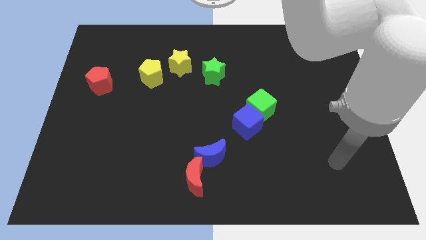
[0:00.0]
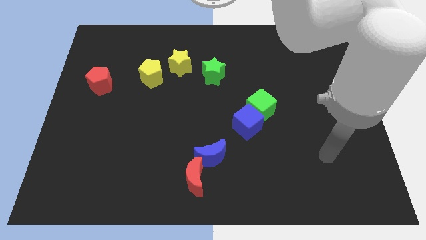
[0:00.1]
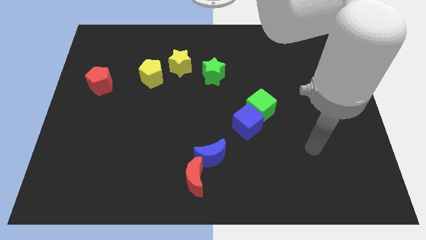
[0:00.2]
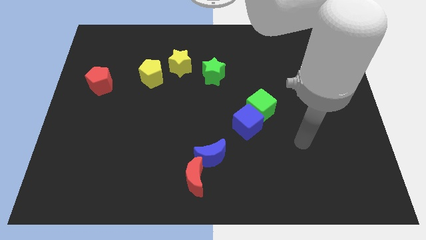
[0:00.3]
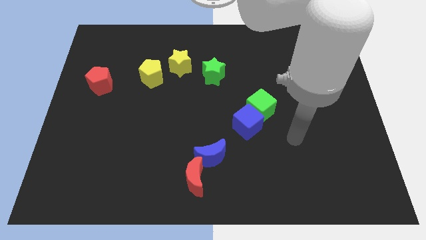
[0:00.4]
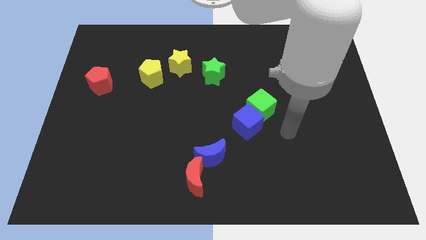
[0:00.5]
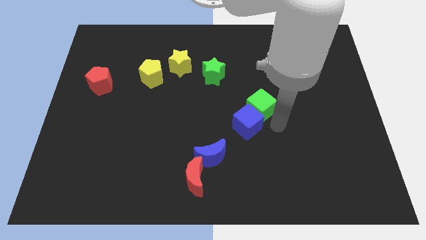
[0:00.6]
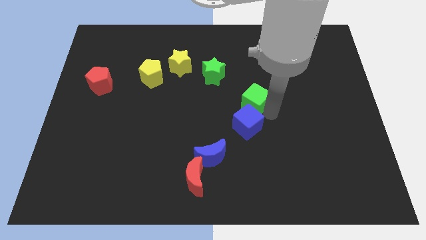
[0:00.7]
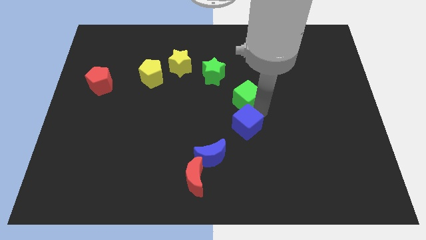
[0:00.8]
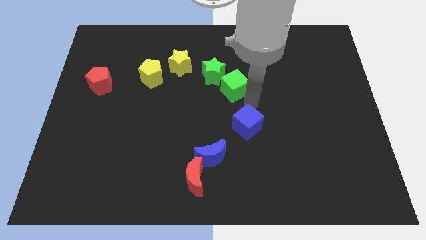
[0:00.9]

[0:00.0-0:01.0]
separate the blue cube from the green cube

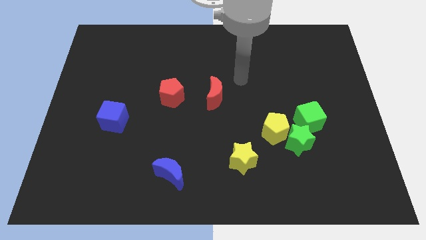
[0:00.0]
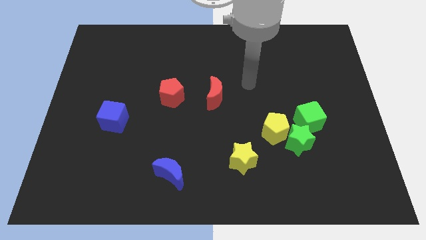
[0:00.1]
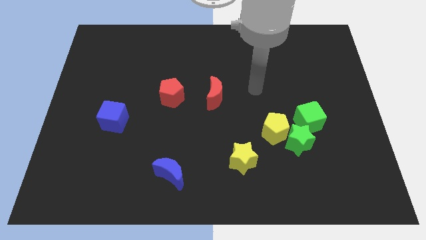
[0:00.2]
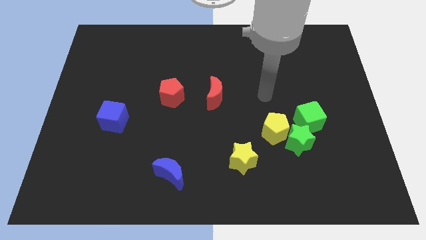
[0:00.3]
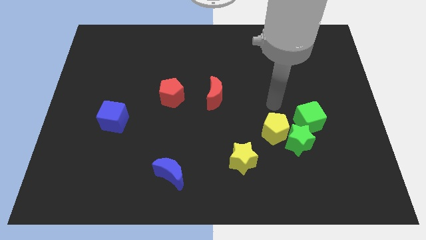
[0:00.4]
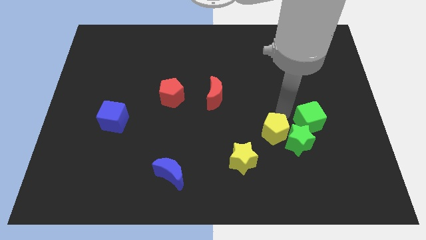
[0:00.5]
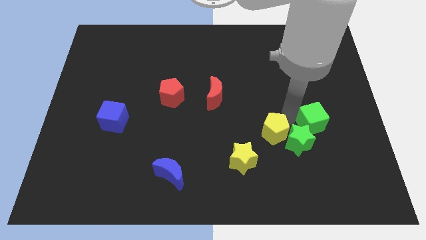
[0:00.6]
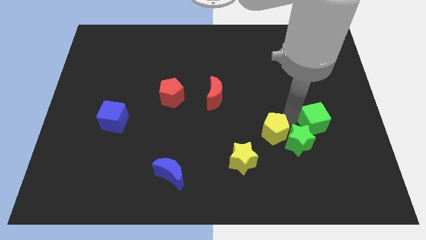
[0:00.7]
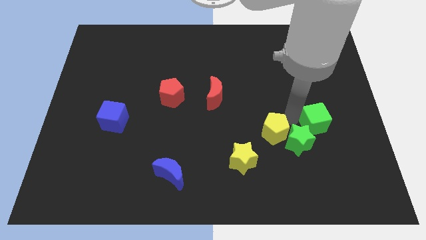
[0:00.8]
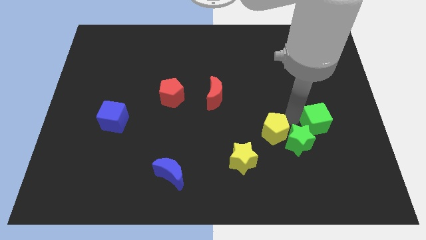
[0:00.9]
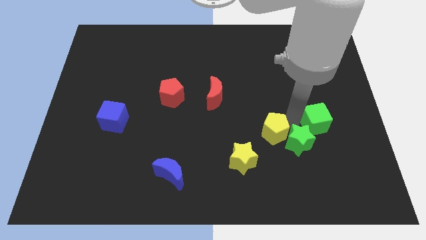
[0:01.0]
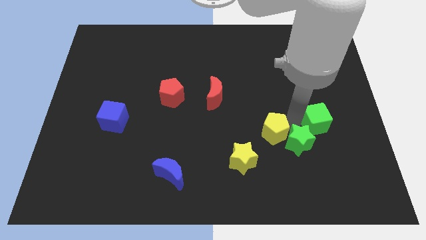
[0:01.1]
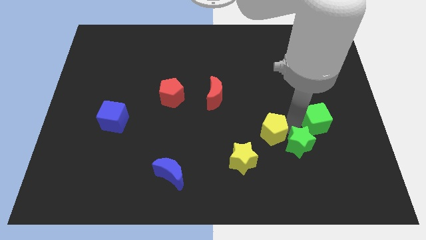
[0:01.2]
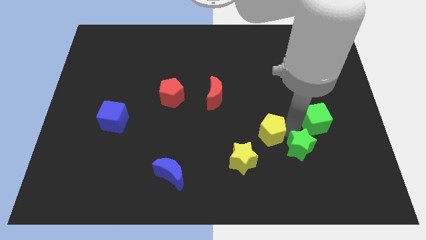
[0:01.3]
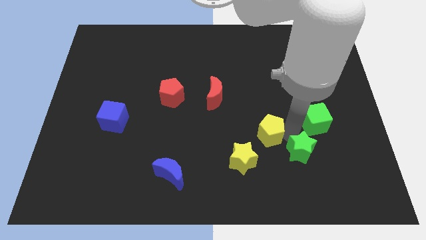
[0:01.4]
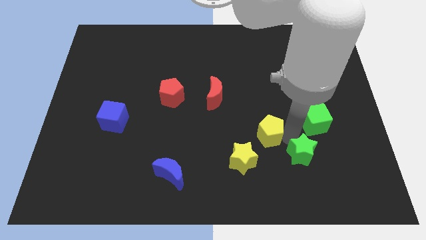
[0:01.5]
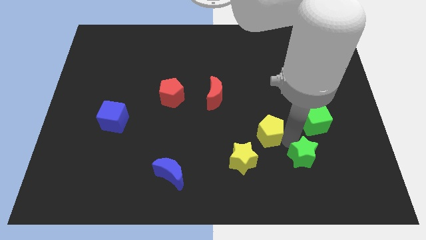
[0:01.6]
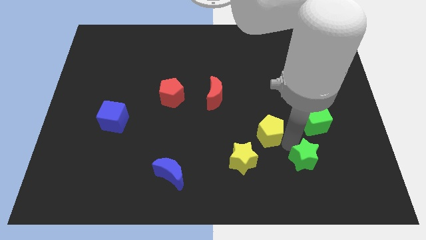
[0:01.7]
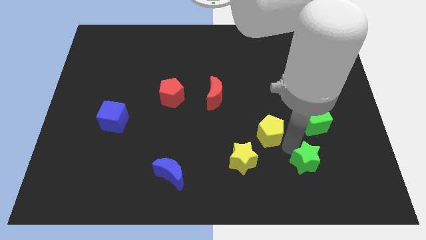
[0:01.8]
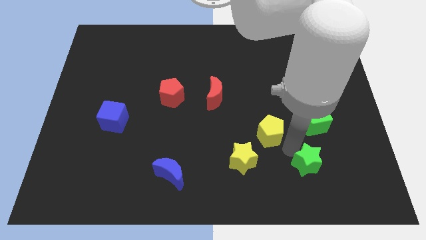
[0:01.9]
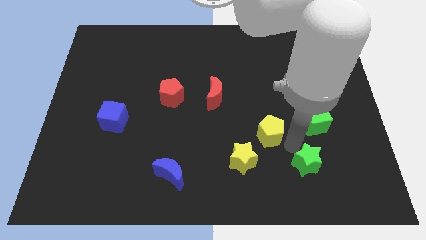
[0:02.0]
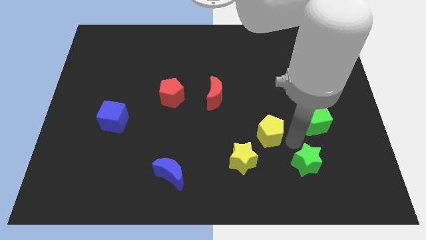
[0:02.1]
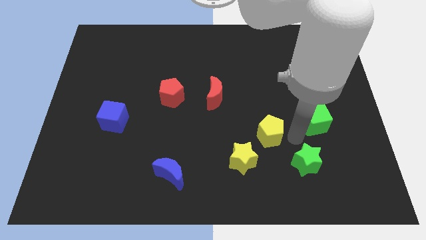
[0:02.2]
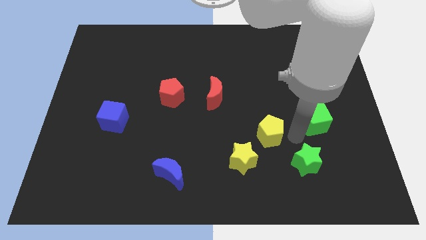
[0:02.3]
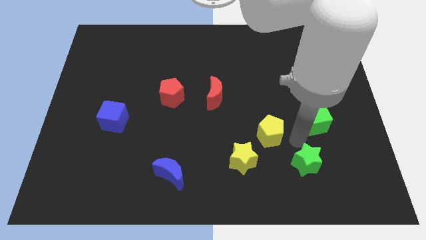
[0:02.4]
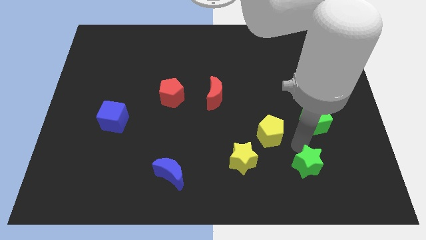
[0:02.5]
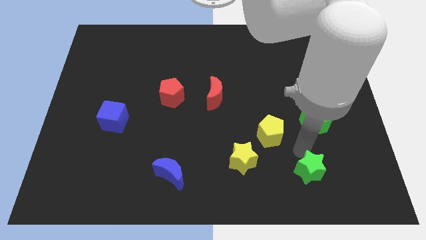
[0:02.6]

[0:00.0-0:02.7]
move the green star away from the yellow pentagon and green cube

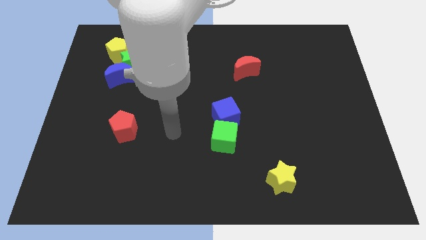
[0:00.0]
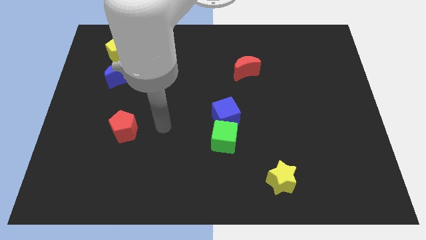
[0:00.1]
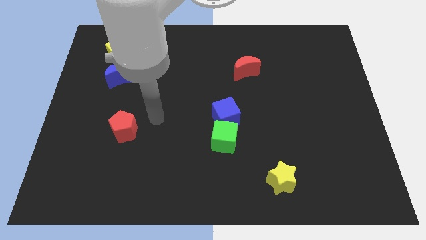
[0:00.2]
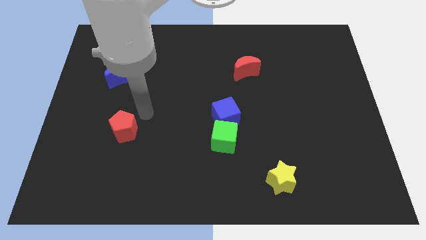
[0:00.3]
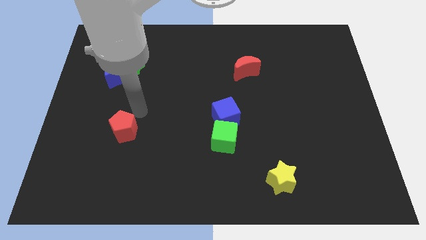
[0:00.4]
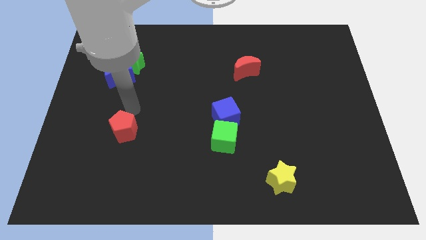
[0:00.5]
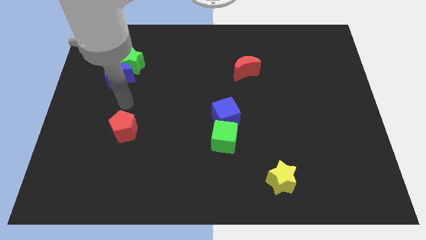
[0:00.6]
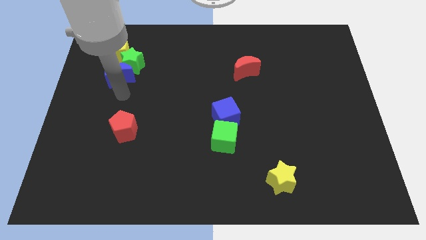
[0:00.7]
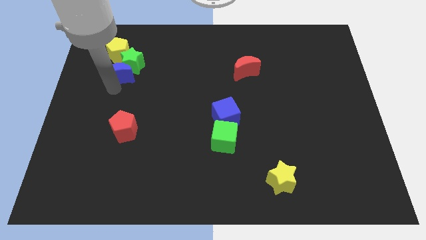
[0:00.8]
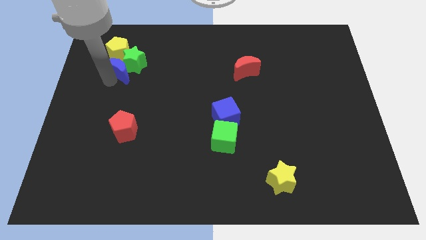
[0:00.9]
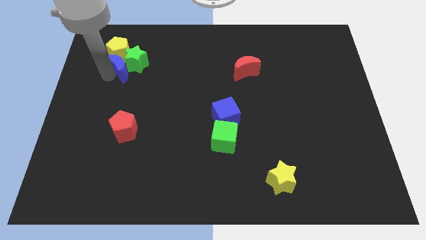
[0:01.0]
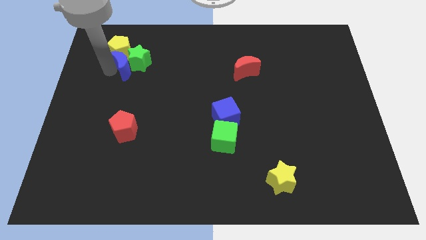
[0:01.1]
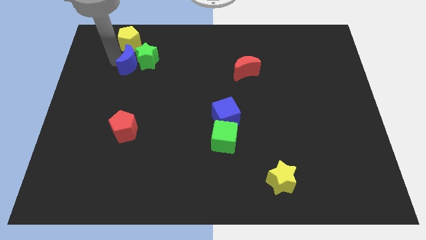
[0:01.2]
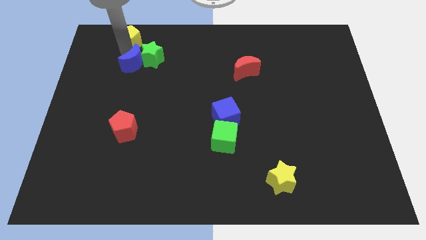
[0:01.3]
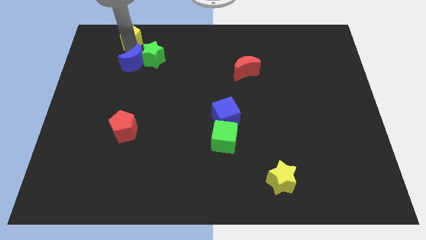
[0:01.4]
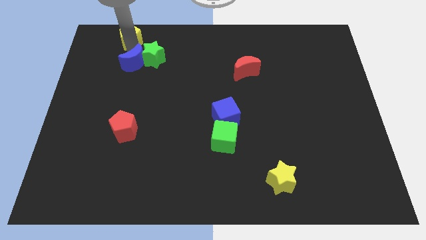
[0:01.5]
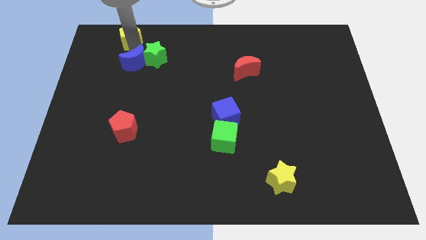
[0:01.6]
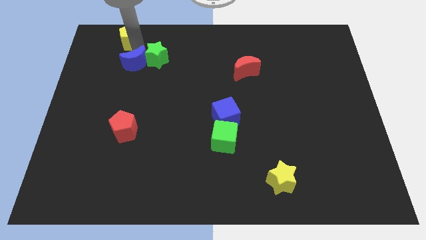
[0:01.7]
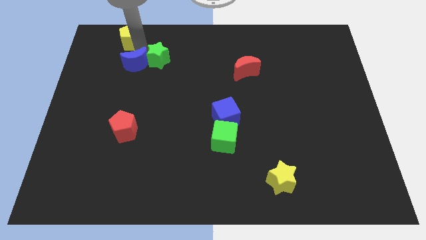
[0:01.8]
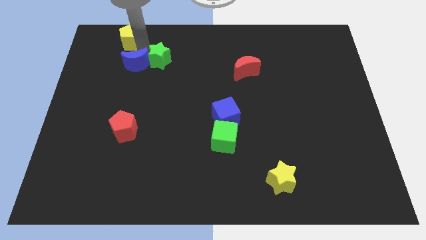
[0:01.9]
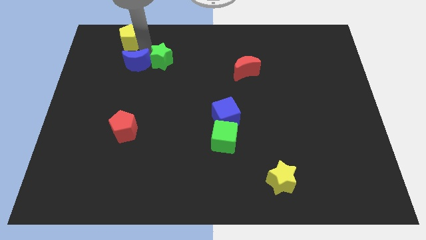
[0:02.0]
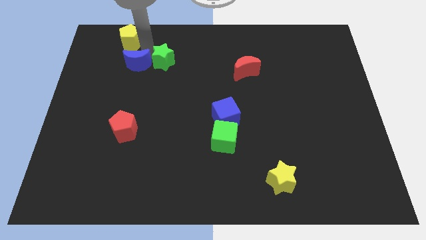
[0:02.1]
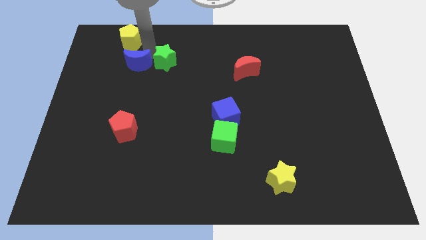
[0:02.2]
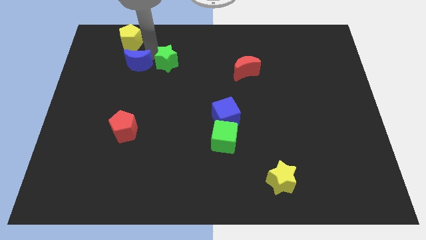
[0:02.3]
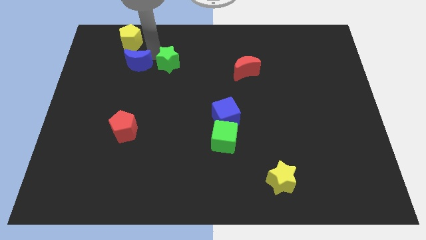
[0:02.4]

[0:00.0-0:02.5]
move the green star away from the blue moon and yellow pentagon

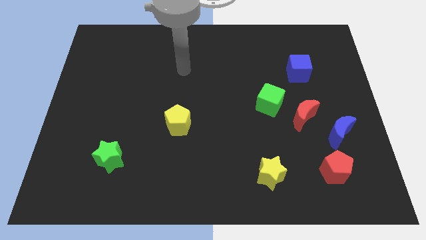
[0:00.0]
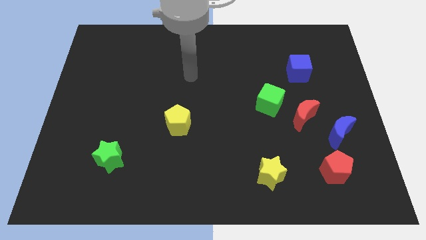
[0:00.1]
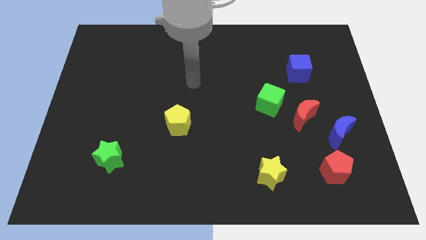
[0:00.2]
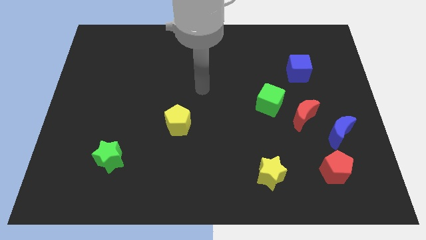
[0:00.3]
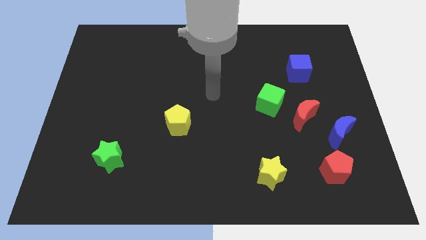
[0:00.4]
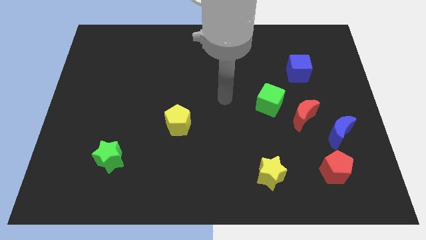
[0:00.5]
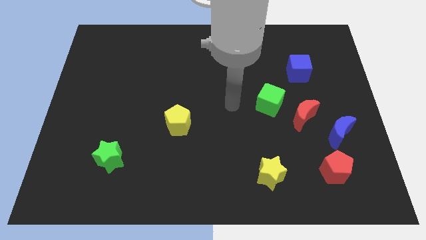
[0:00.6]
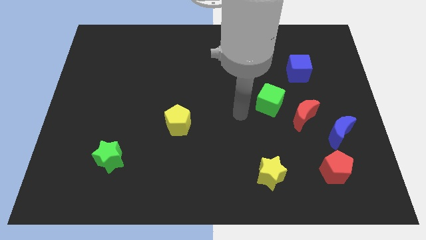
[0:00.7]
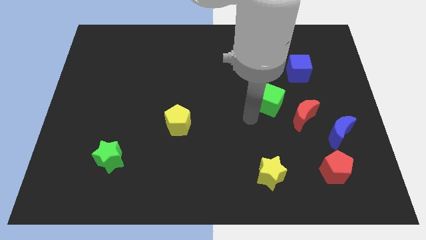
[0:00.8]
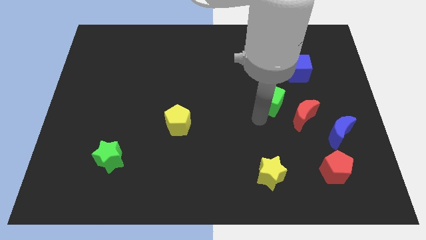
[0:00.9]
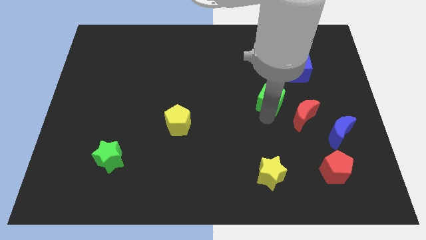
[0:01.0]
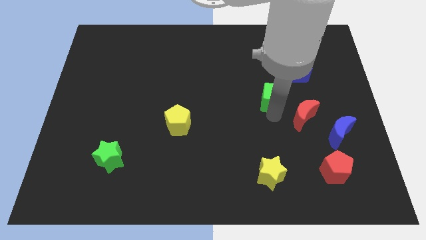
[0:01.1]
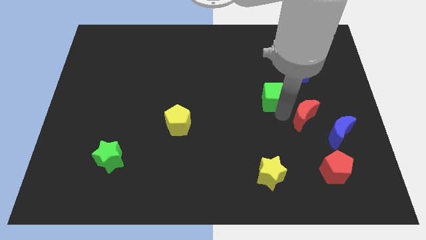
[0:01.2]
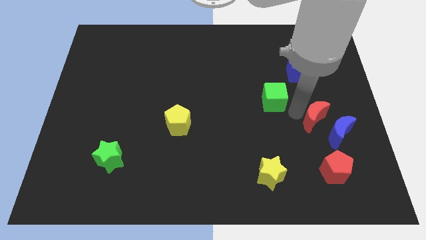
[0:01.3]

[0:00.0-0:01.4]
move the green cube away from the red moon

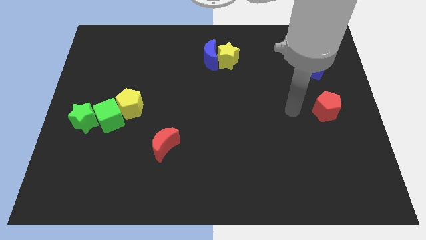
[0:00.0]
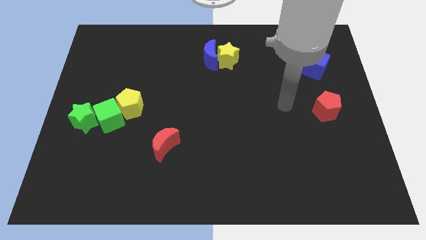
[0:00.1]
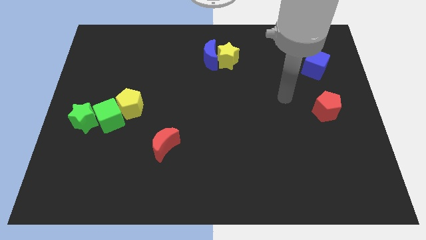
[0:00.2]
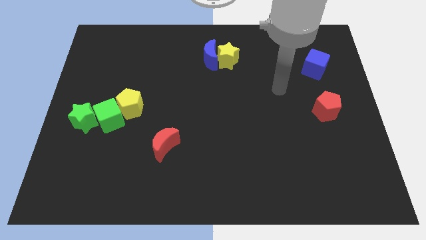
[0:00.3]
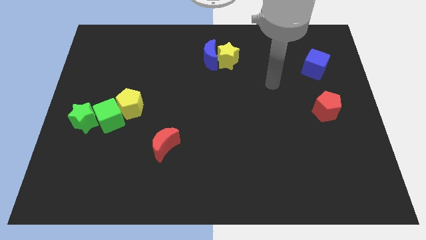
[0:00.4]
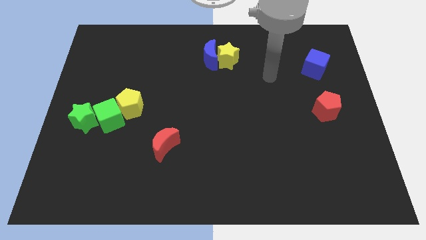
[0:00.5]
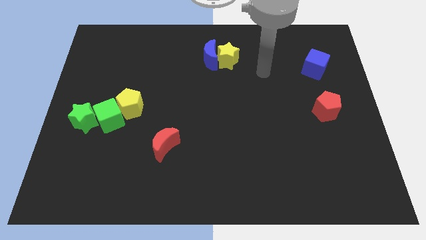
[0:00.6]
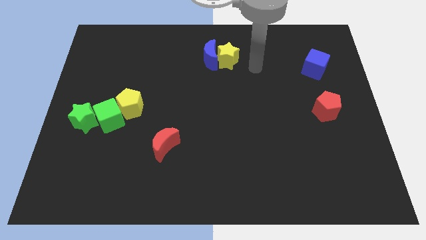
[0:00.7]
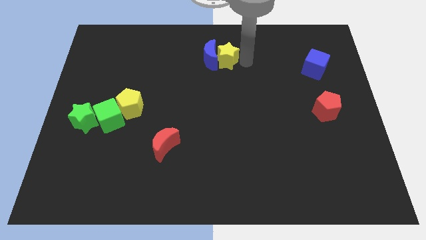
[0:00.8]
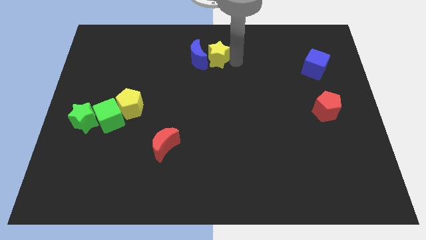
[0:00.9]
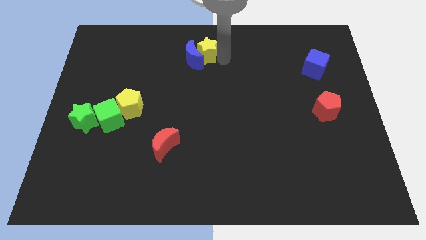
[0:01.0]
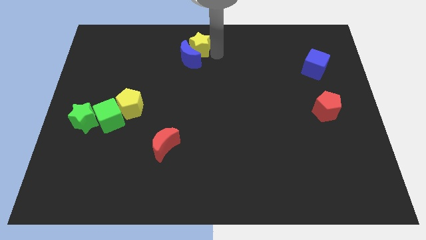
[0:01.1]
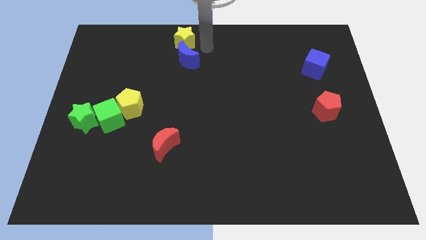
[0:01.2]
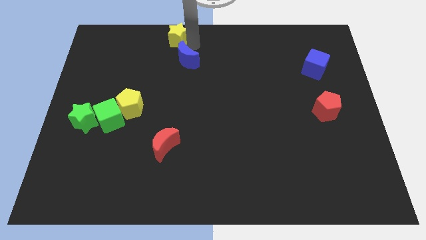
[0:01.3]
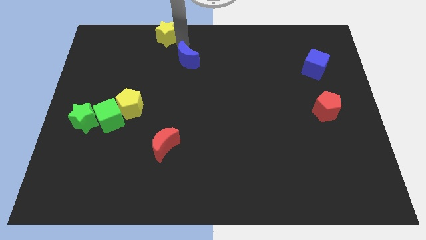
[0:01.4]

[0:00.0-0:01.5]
separate the blue moon from the yellow star

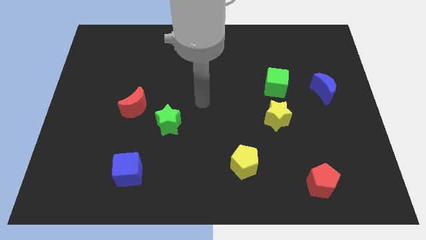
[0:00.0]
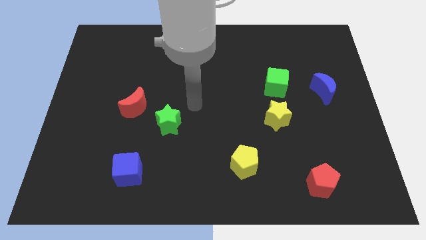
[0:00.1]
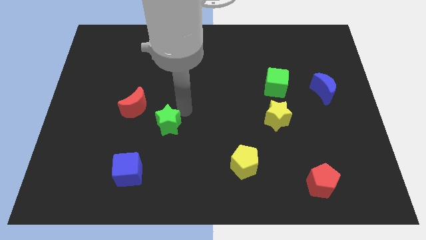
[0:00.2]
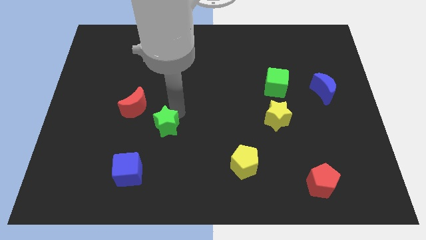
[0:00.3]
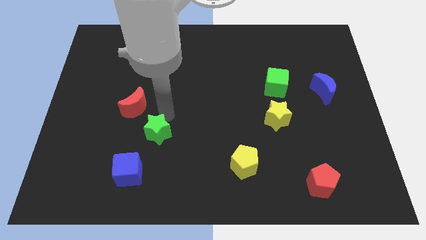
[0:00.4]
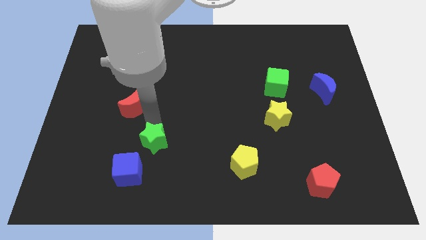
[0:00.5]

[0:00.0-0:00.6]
pull the red moon apart from the green star
